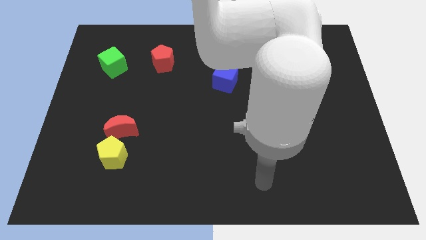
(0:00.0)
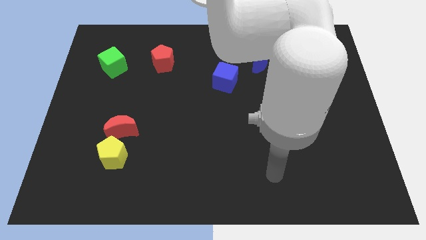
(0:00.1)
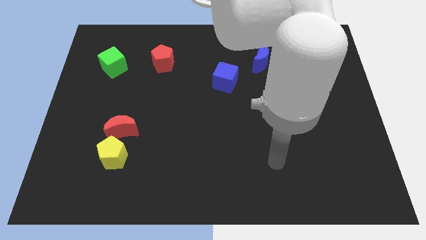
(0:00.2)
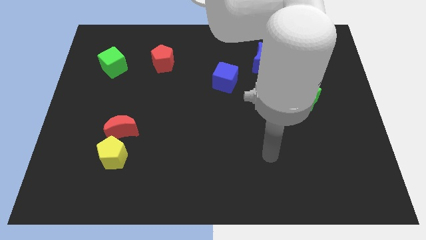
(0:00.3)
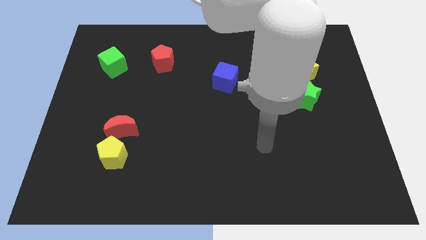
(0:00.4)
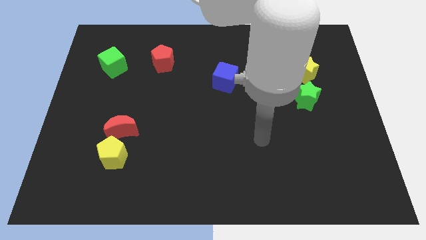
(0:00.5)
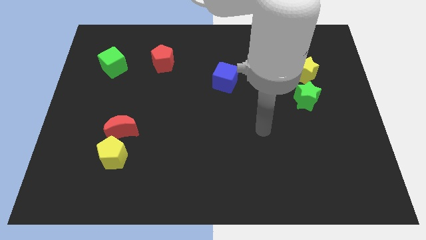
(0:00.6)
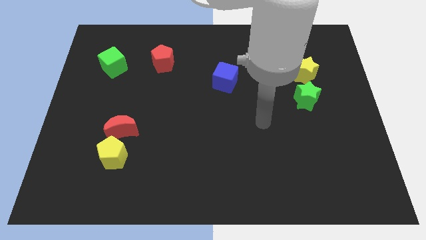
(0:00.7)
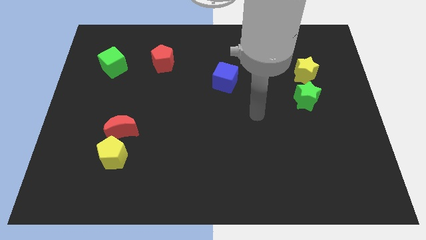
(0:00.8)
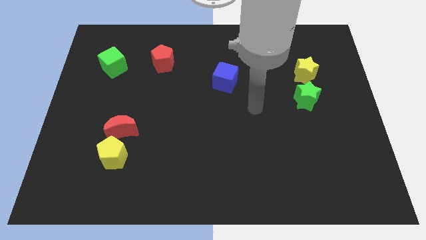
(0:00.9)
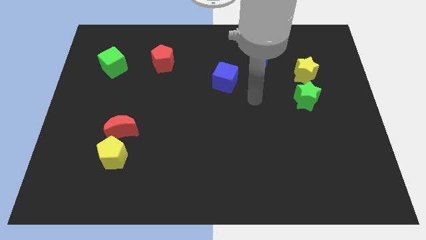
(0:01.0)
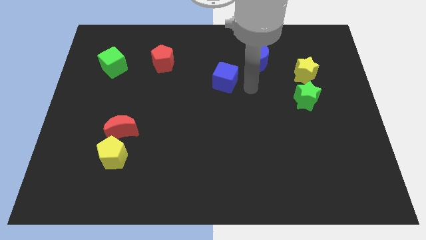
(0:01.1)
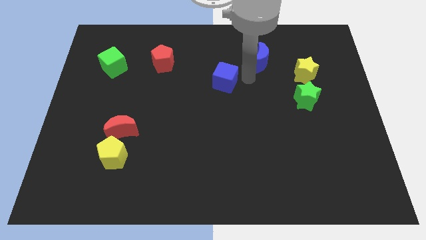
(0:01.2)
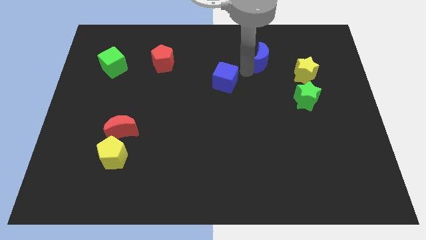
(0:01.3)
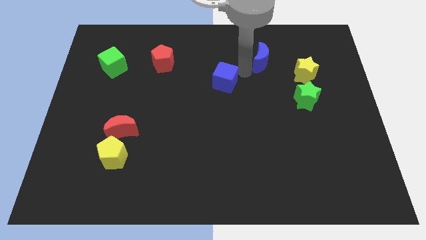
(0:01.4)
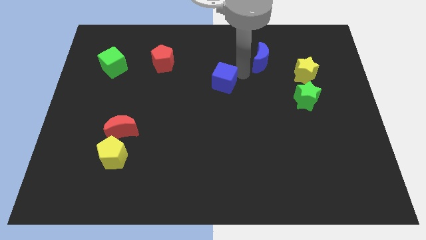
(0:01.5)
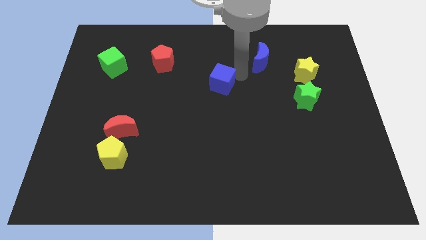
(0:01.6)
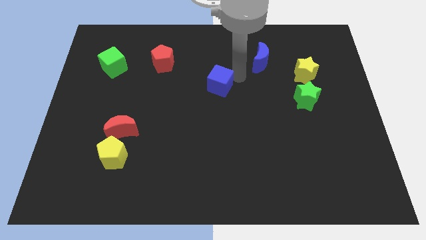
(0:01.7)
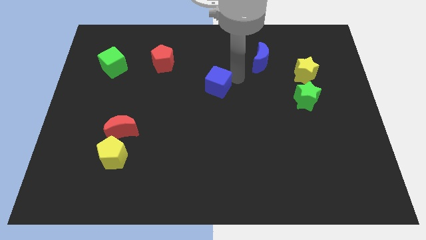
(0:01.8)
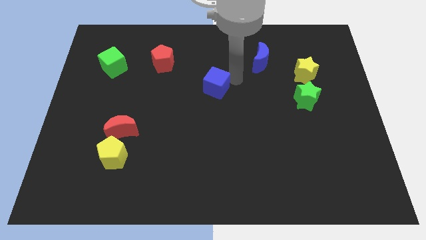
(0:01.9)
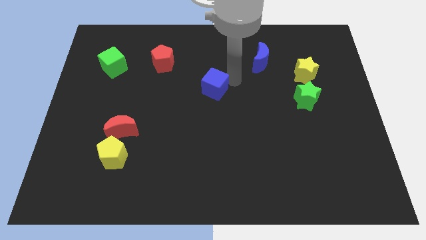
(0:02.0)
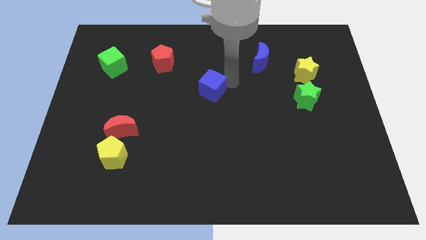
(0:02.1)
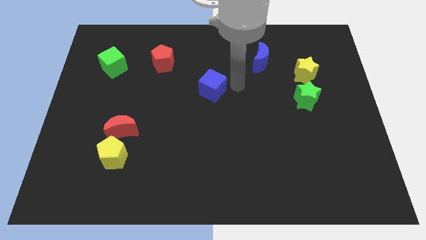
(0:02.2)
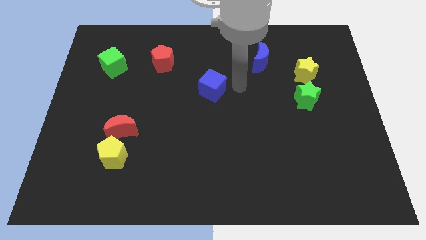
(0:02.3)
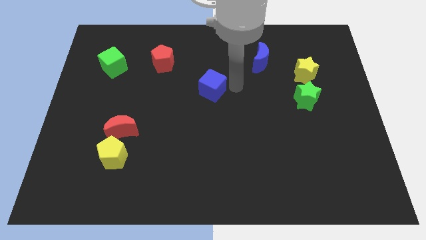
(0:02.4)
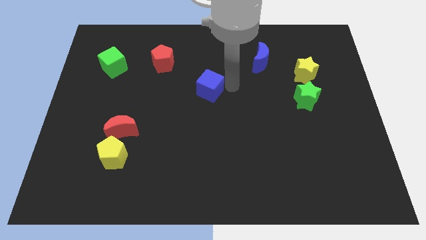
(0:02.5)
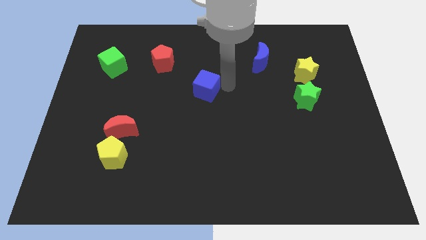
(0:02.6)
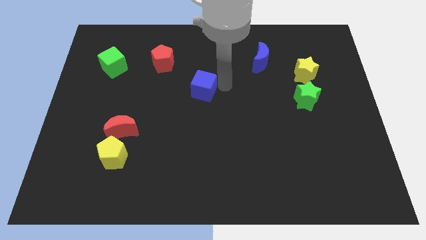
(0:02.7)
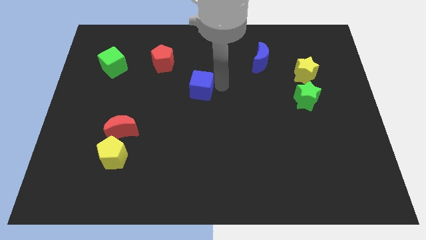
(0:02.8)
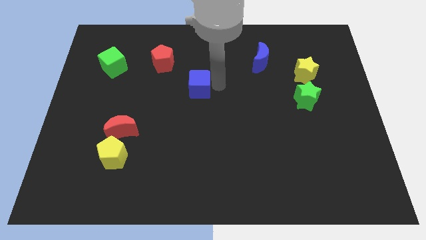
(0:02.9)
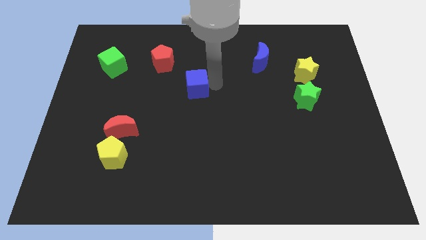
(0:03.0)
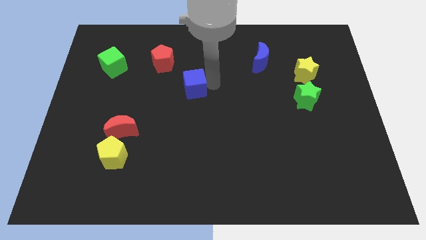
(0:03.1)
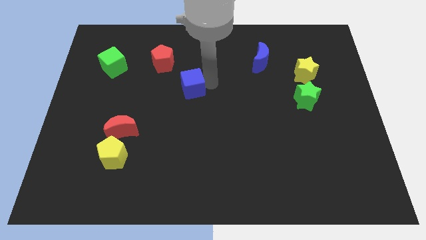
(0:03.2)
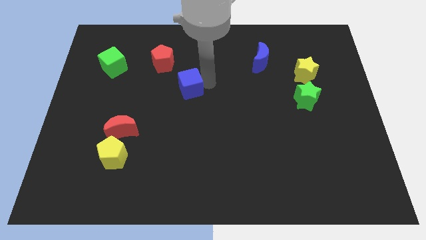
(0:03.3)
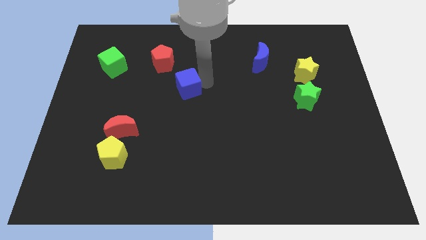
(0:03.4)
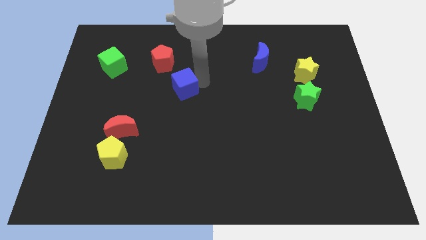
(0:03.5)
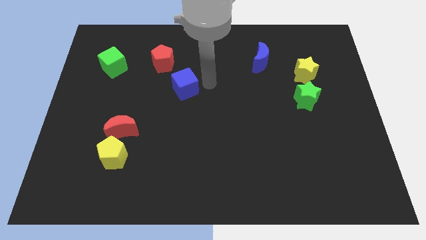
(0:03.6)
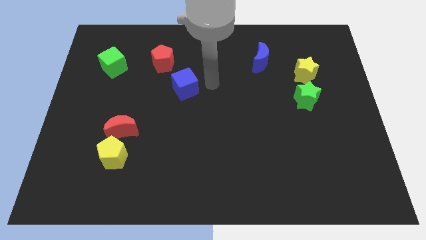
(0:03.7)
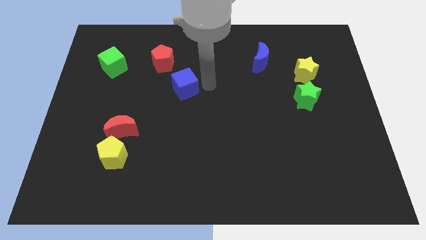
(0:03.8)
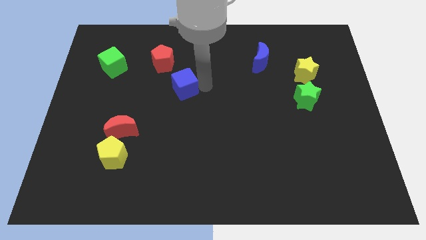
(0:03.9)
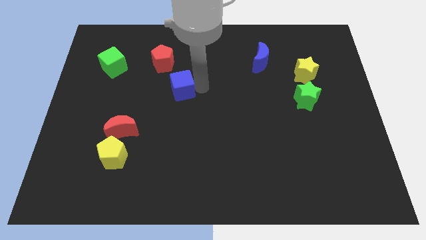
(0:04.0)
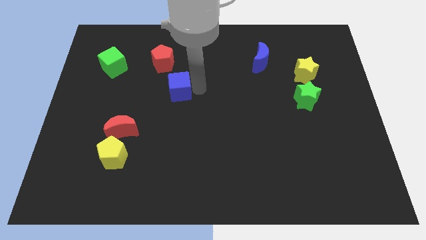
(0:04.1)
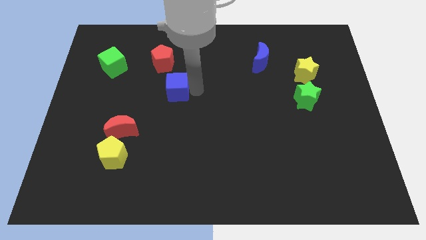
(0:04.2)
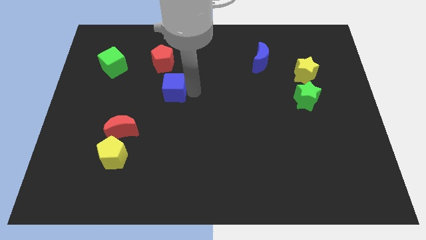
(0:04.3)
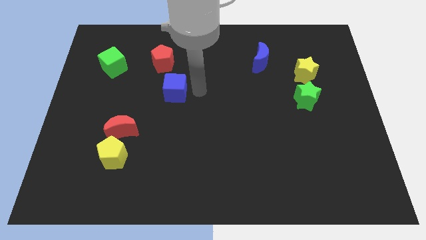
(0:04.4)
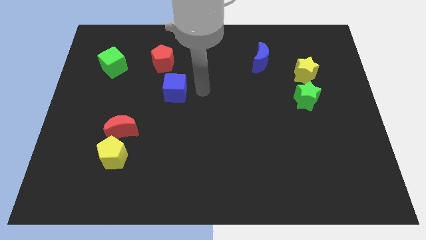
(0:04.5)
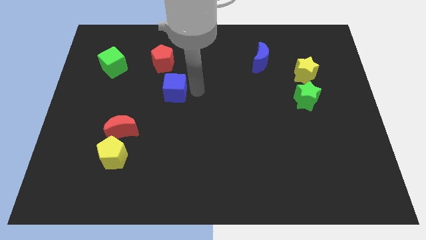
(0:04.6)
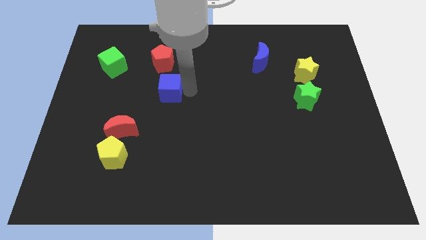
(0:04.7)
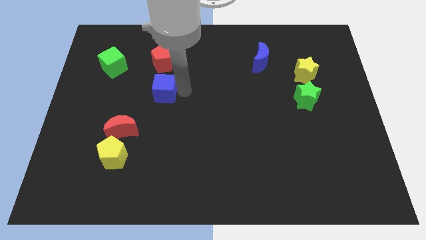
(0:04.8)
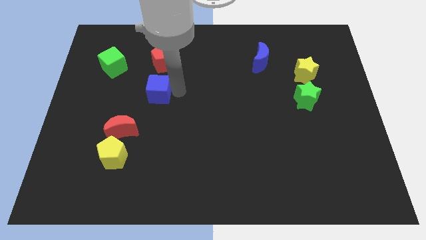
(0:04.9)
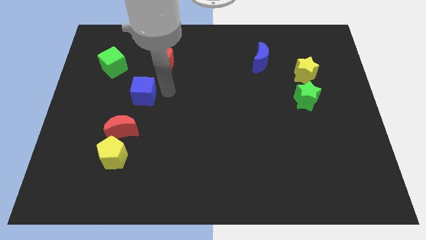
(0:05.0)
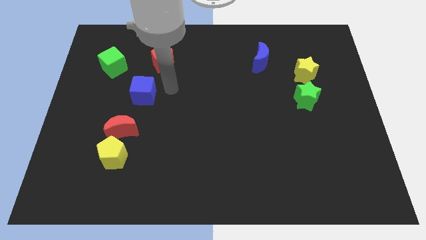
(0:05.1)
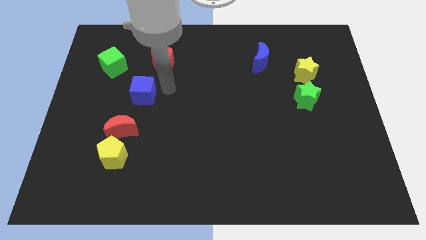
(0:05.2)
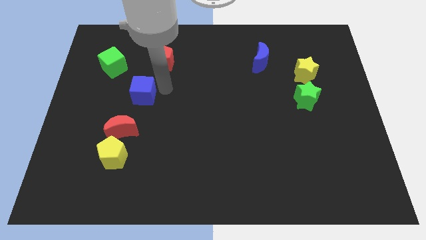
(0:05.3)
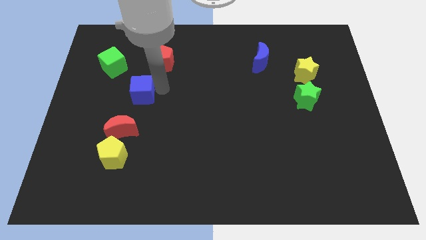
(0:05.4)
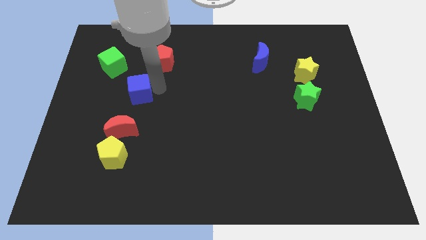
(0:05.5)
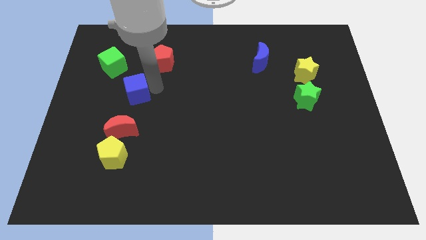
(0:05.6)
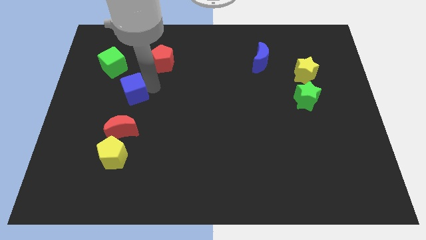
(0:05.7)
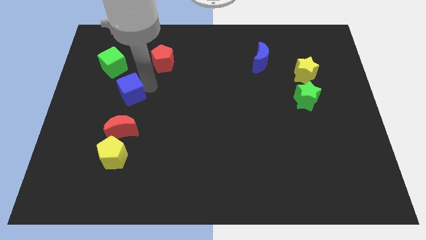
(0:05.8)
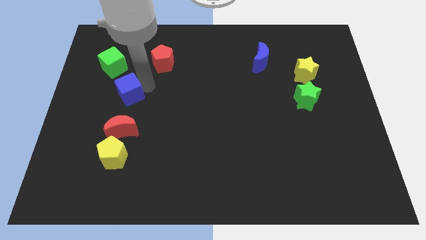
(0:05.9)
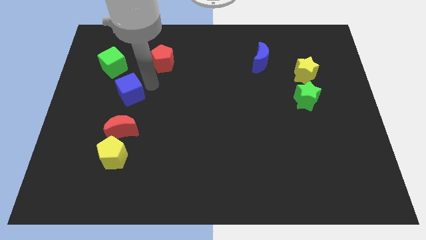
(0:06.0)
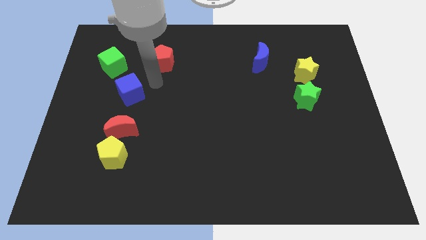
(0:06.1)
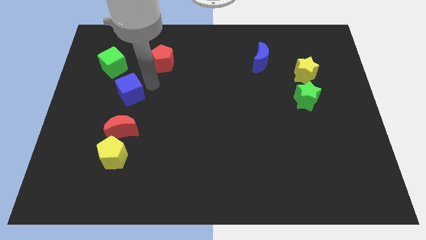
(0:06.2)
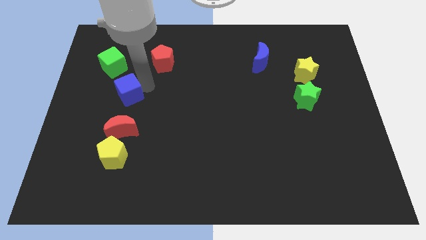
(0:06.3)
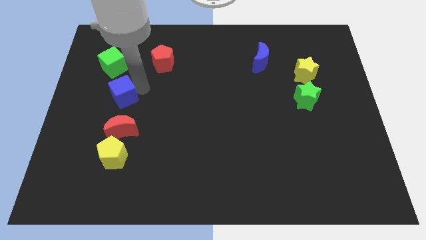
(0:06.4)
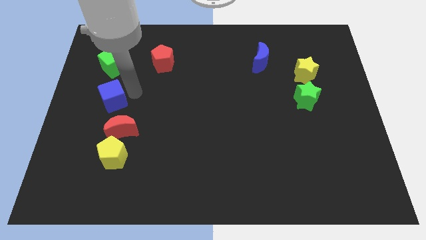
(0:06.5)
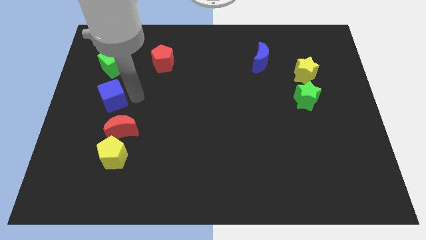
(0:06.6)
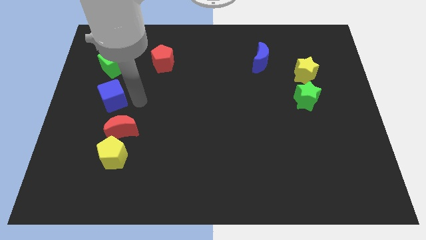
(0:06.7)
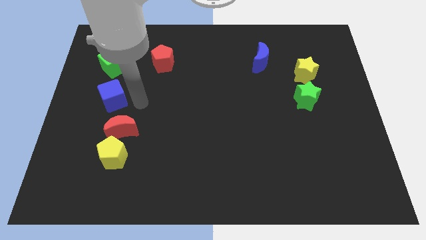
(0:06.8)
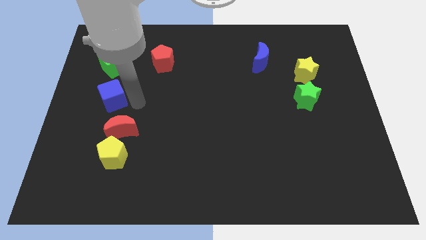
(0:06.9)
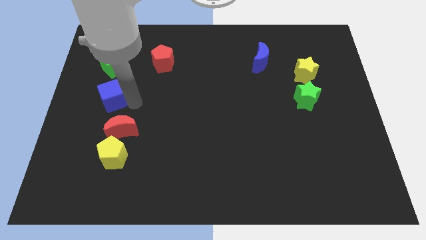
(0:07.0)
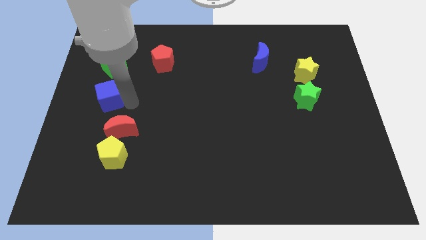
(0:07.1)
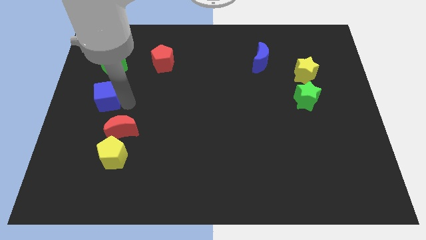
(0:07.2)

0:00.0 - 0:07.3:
move the blue cube to the center left
